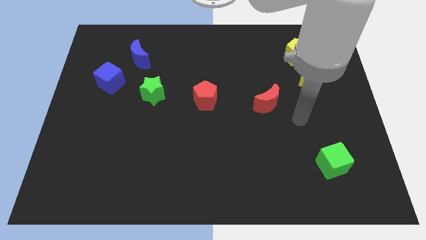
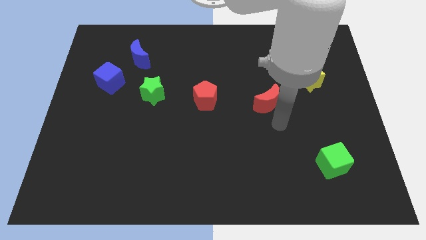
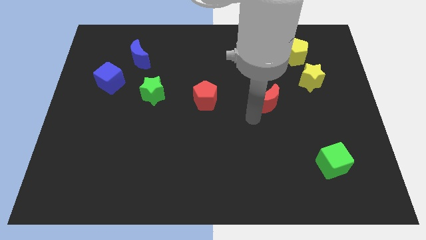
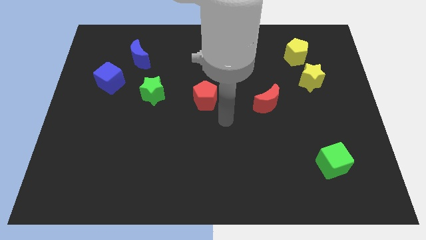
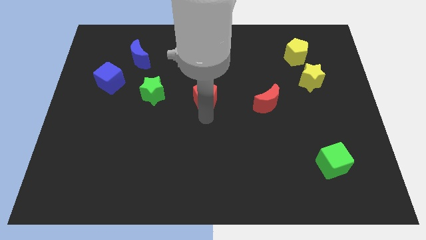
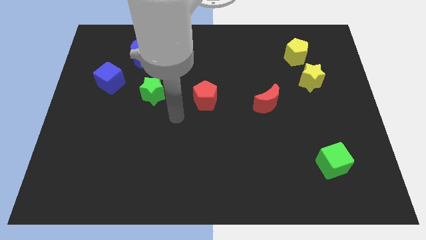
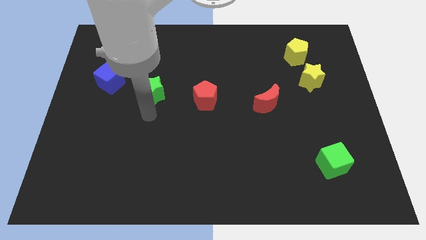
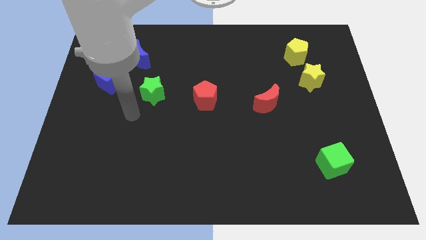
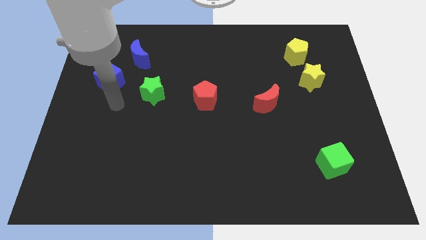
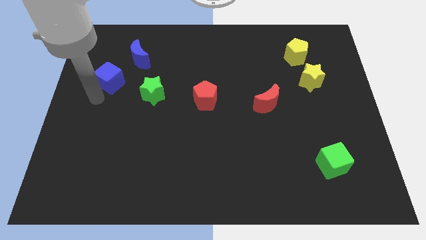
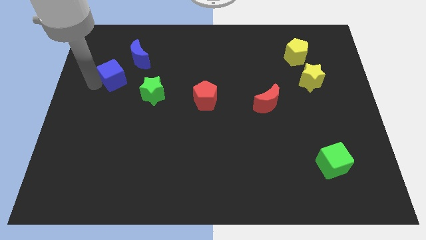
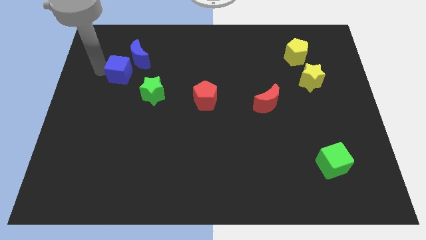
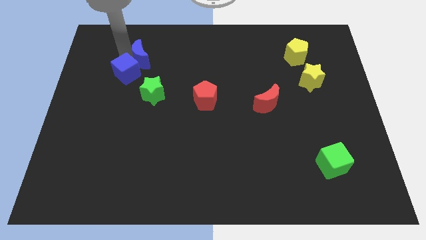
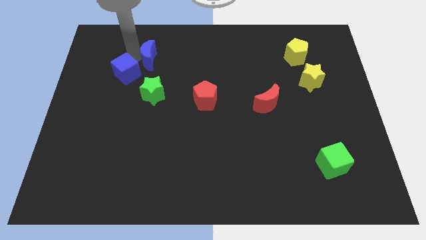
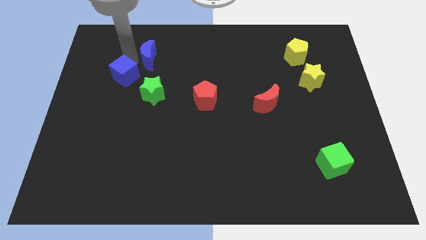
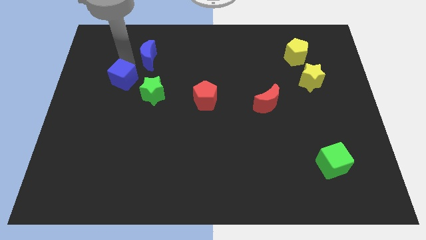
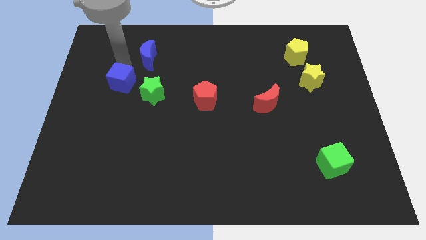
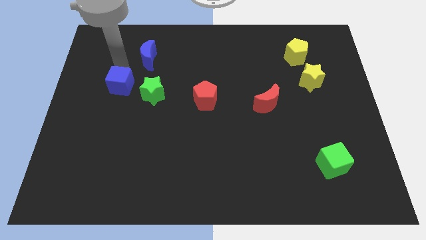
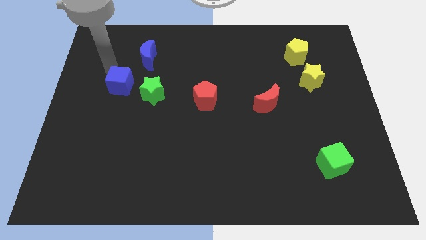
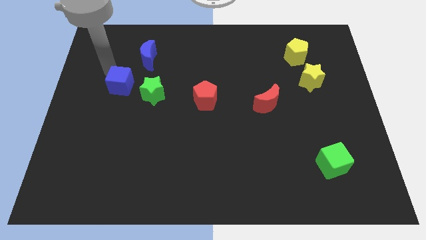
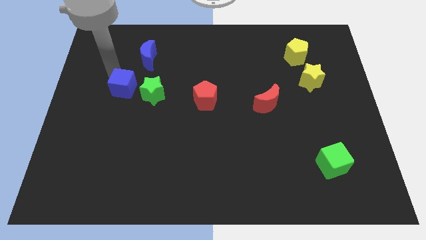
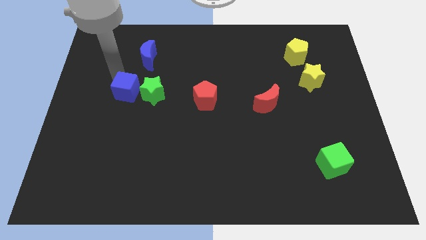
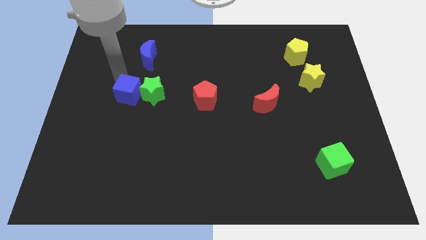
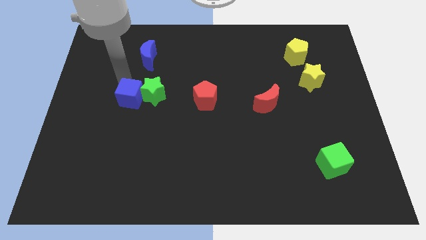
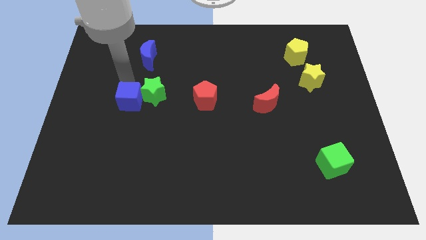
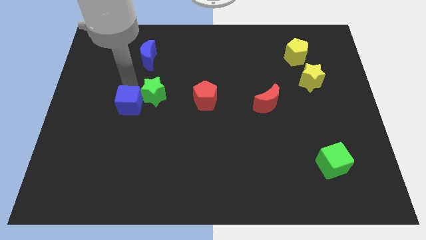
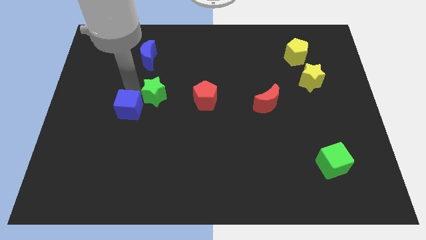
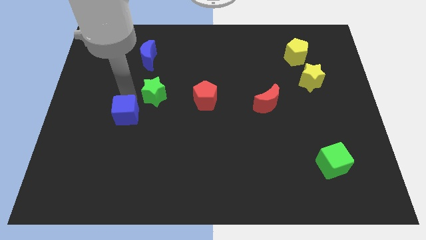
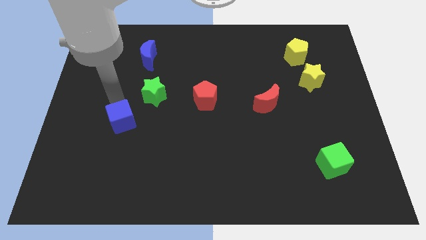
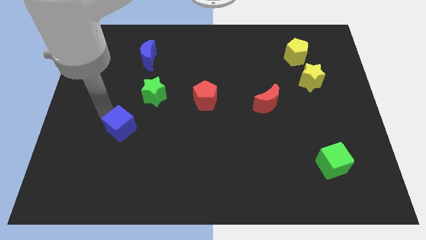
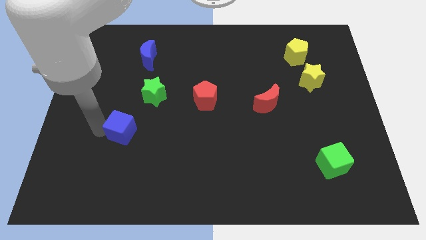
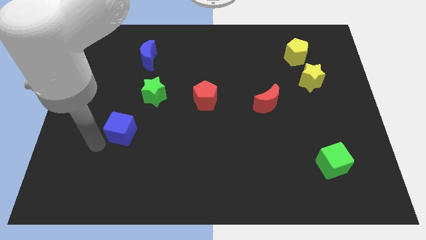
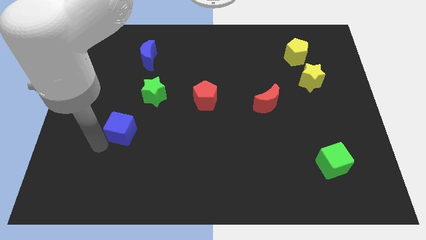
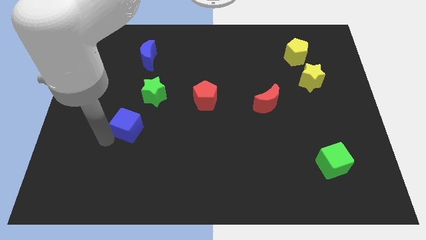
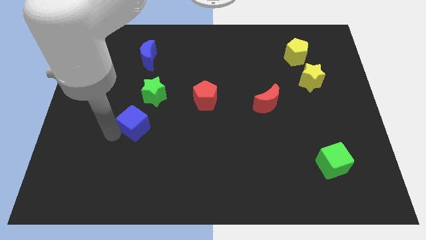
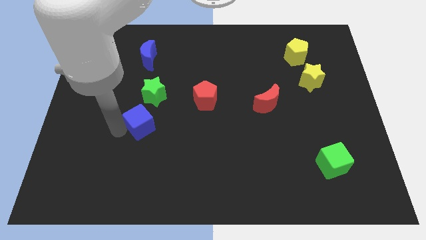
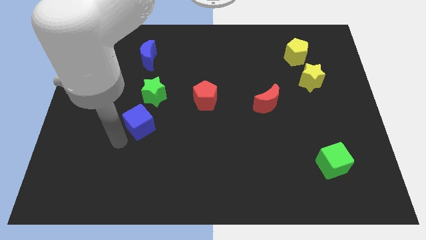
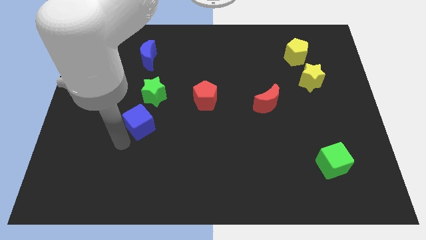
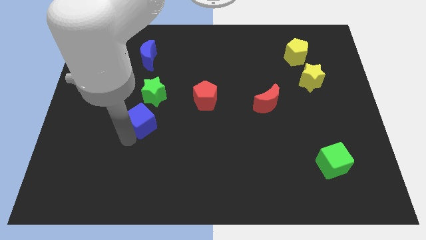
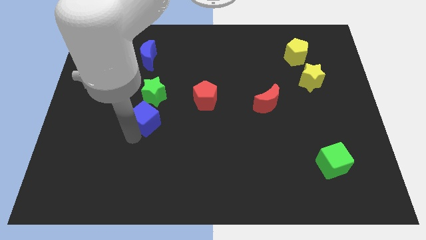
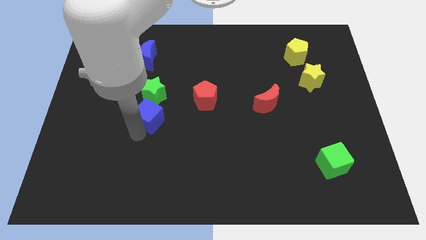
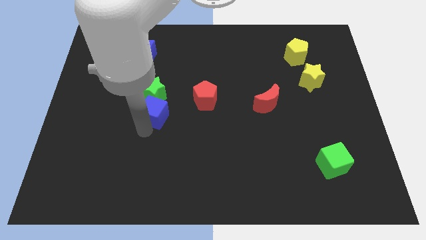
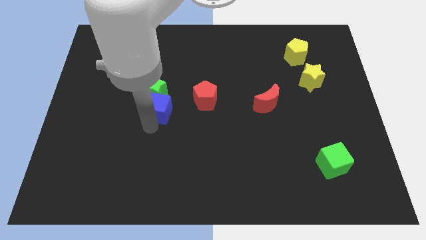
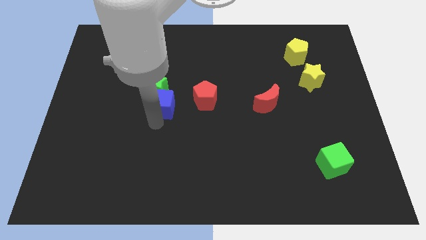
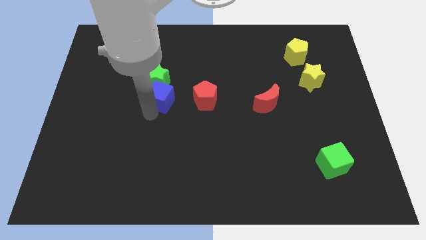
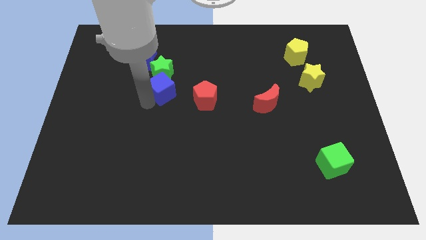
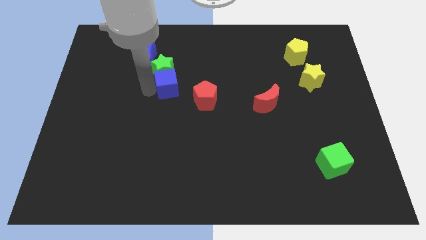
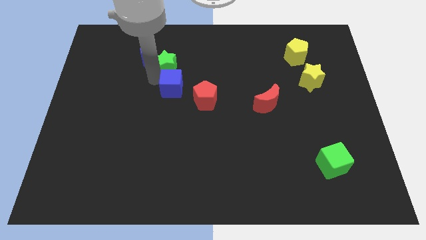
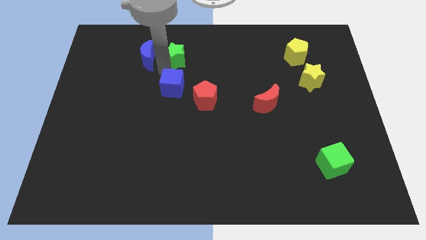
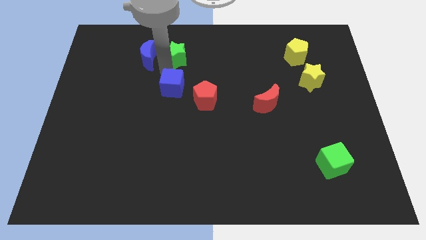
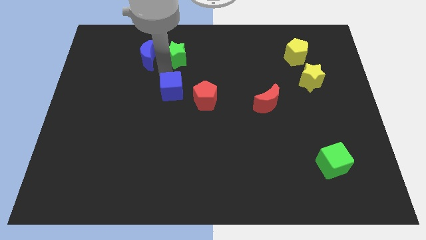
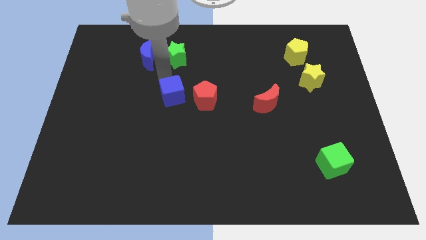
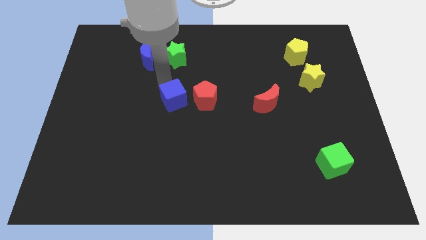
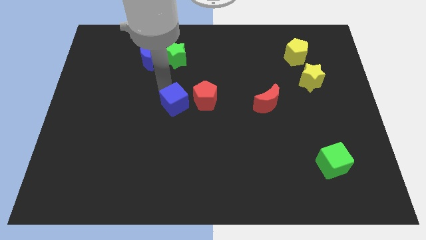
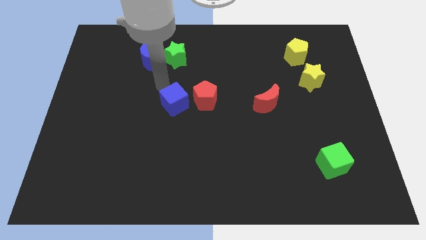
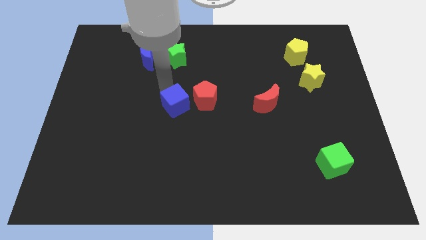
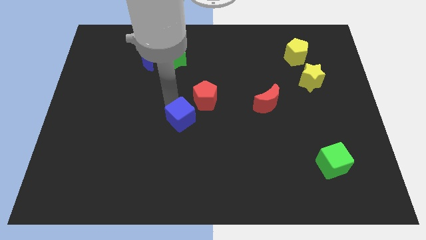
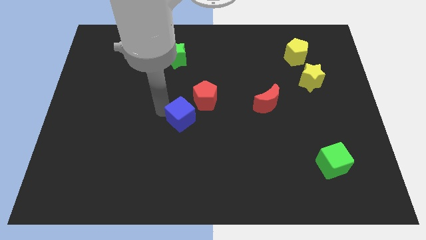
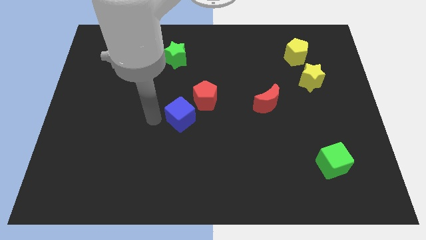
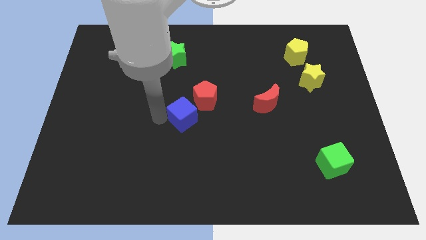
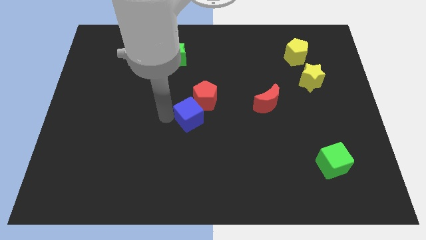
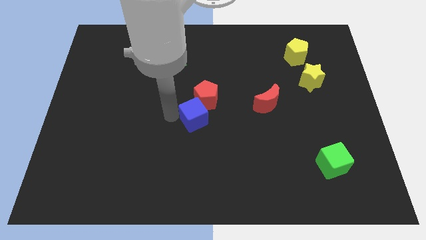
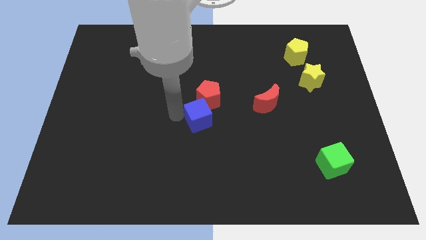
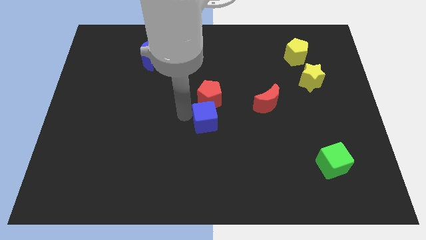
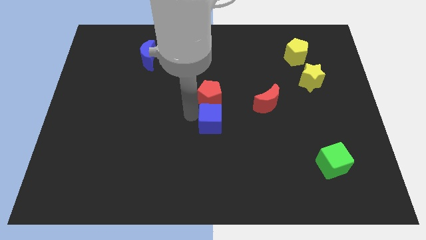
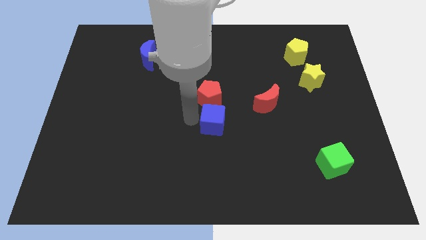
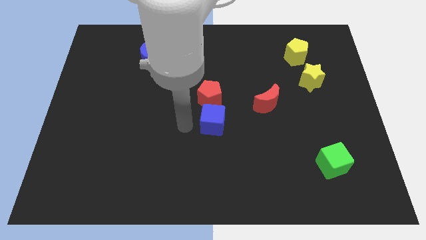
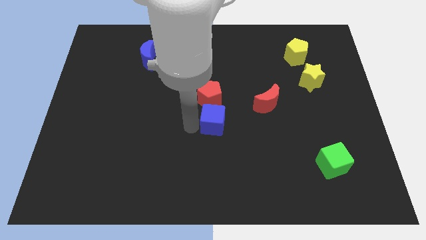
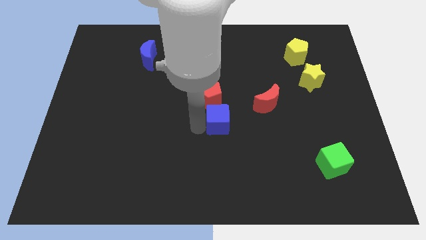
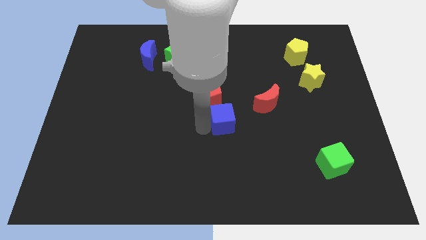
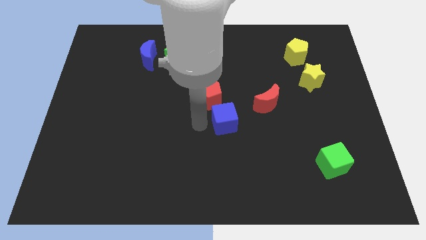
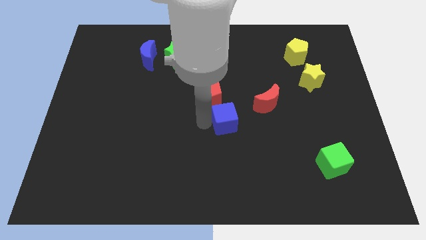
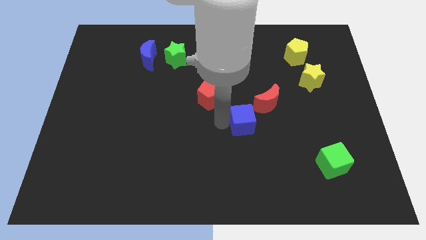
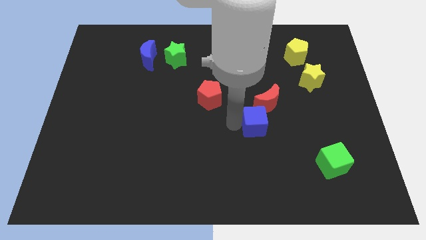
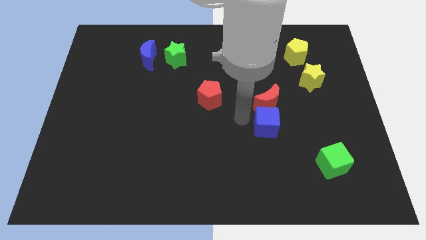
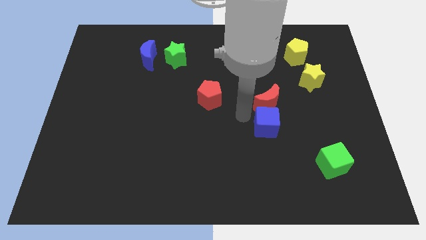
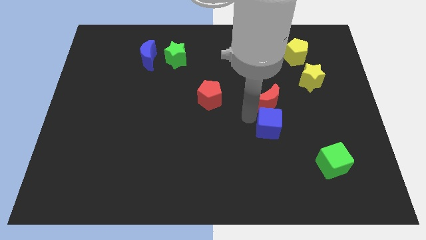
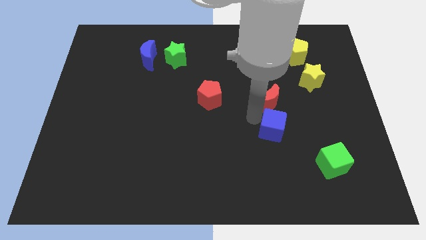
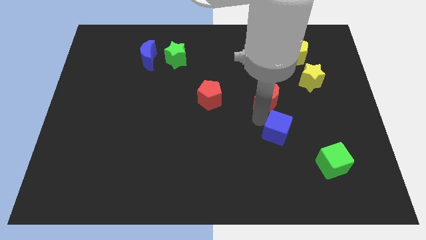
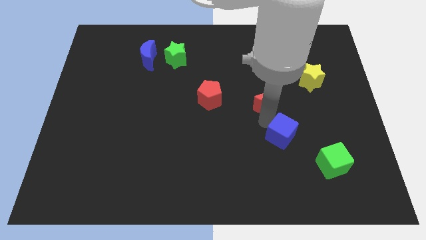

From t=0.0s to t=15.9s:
put the blue cube to the top left side of the green cube
